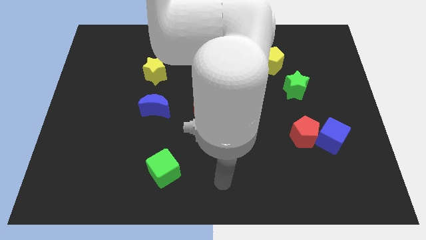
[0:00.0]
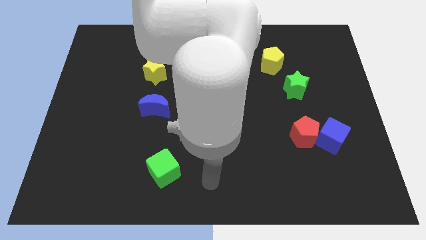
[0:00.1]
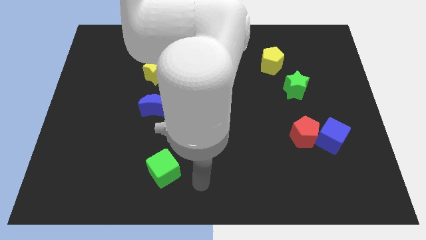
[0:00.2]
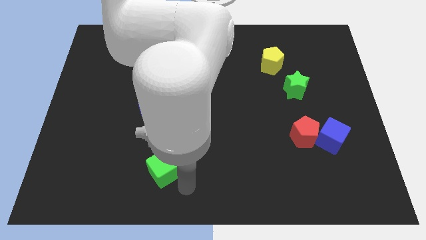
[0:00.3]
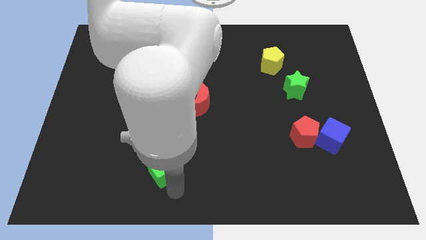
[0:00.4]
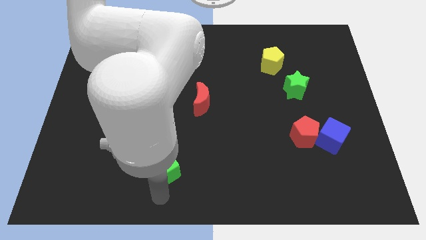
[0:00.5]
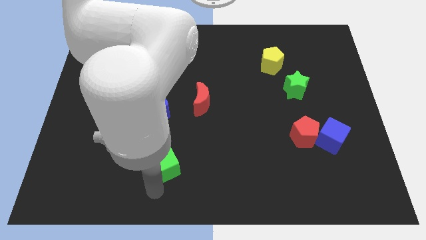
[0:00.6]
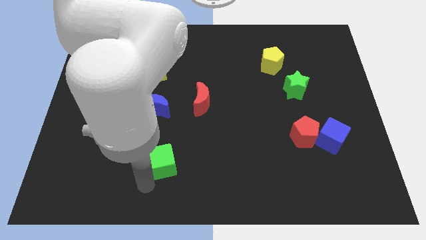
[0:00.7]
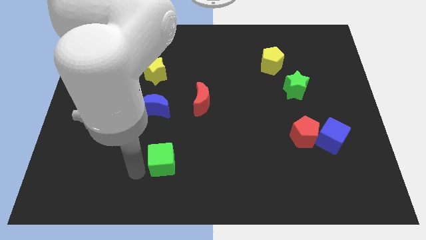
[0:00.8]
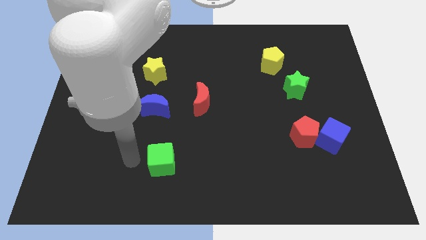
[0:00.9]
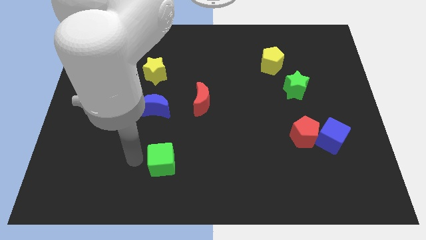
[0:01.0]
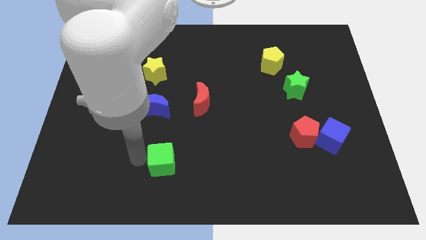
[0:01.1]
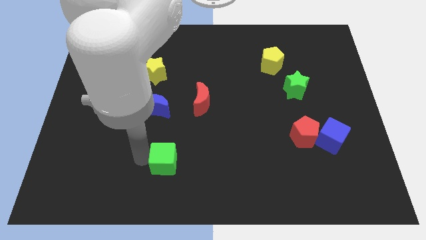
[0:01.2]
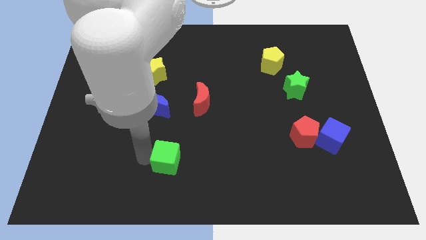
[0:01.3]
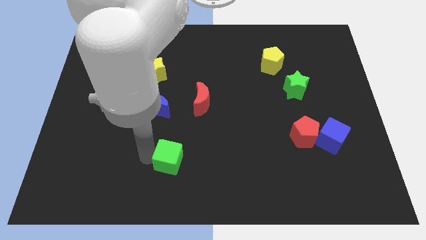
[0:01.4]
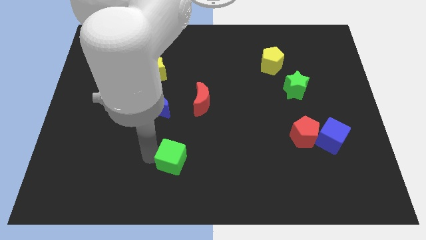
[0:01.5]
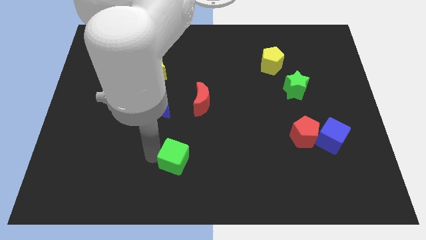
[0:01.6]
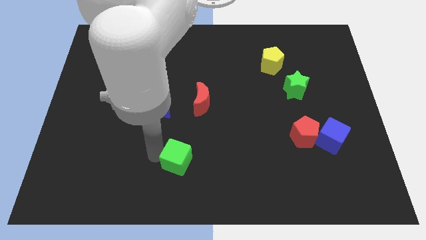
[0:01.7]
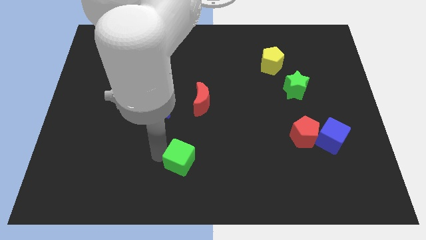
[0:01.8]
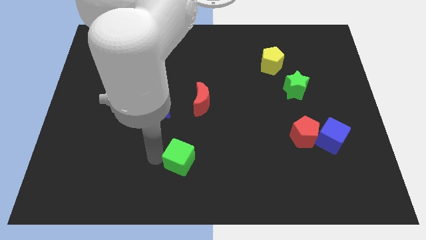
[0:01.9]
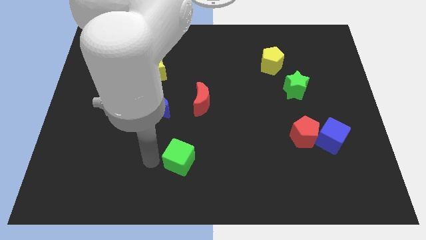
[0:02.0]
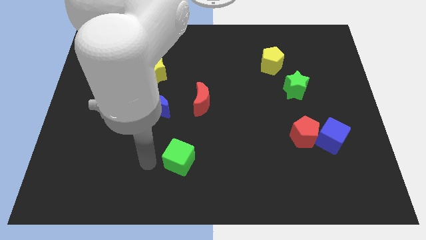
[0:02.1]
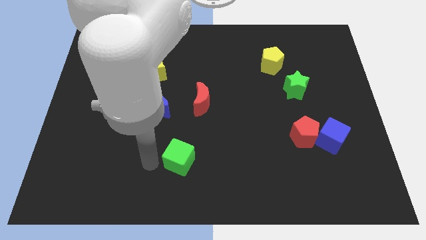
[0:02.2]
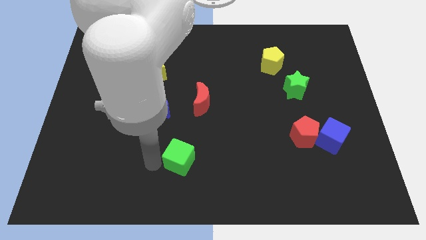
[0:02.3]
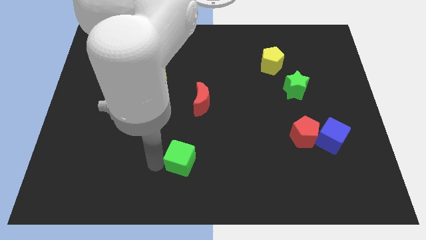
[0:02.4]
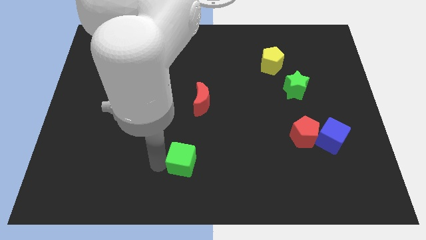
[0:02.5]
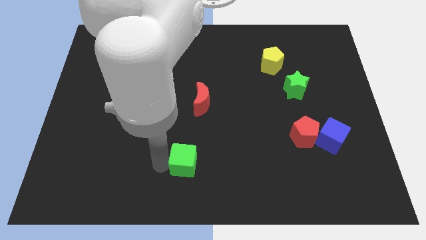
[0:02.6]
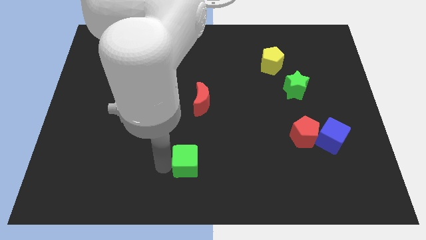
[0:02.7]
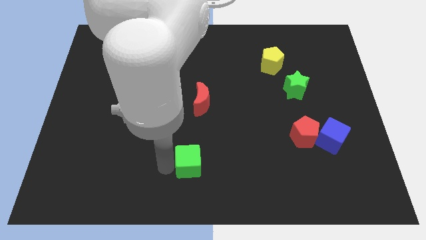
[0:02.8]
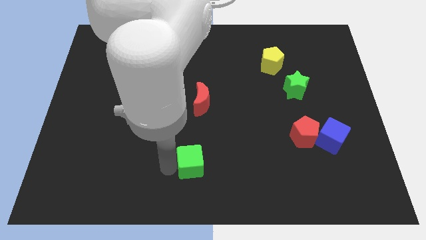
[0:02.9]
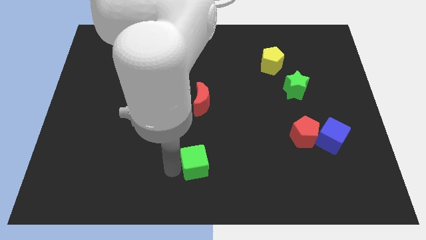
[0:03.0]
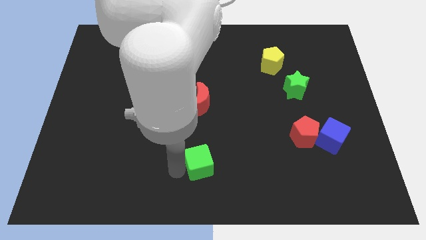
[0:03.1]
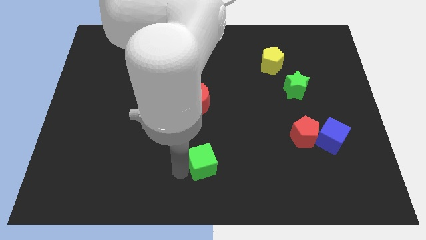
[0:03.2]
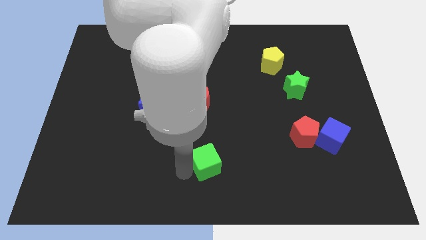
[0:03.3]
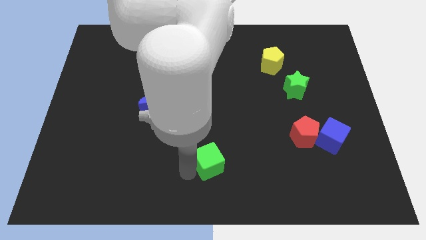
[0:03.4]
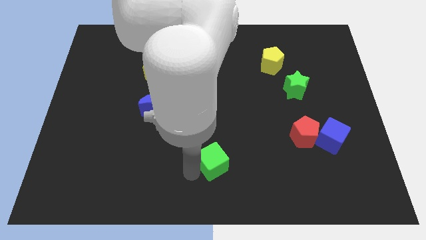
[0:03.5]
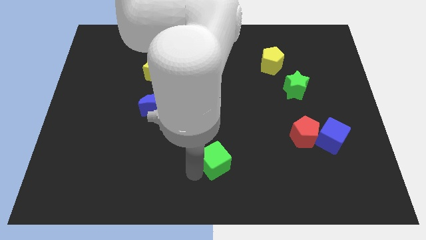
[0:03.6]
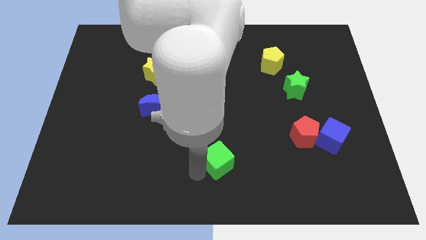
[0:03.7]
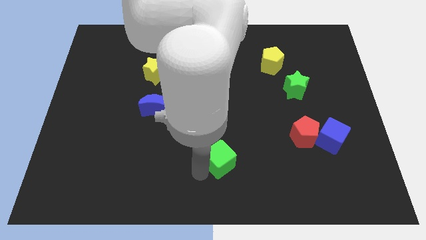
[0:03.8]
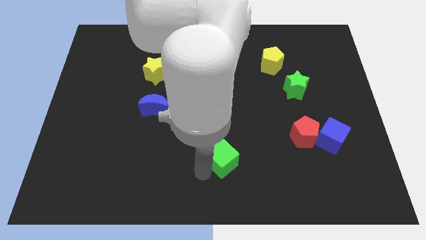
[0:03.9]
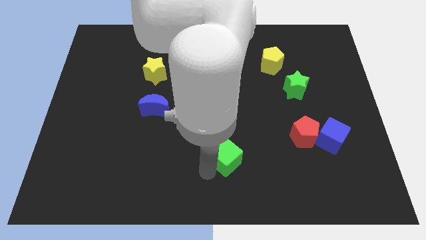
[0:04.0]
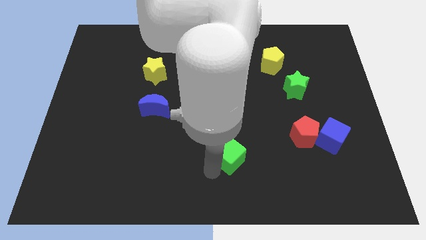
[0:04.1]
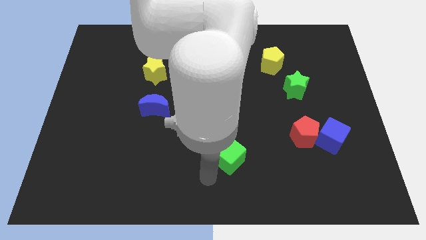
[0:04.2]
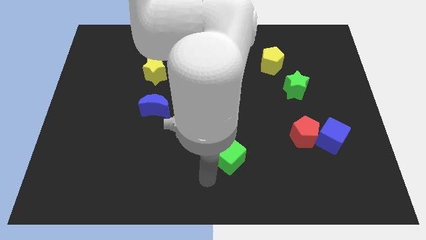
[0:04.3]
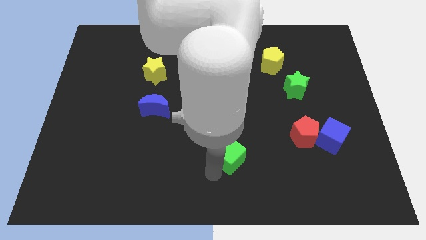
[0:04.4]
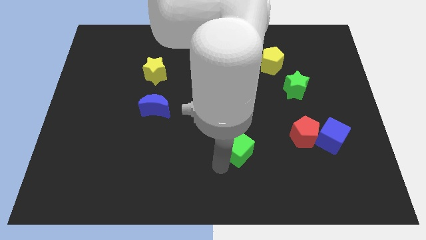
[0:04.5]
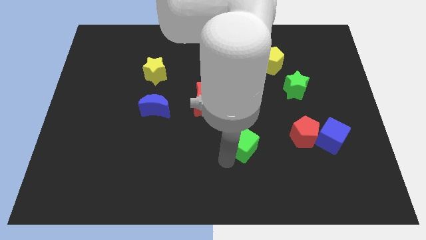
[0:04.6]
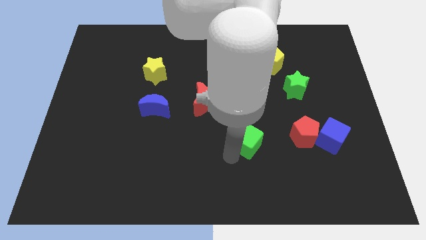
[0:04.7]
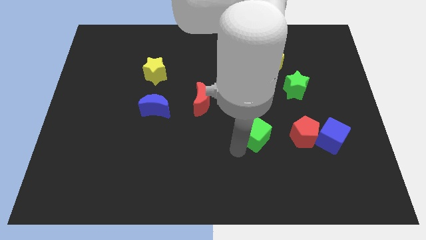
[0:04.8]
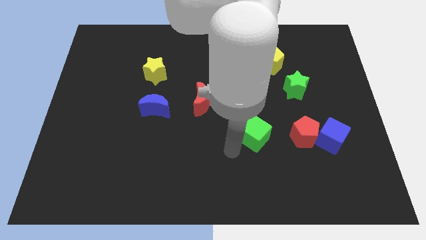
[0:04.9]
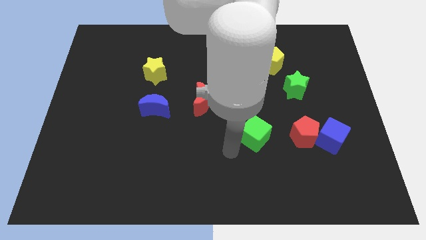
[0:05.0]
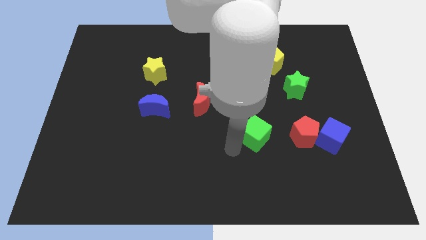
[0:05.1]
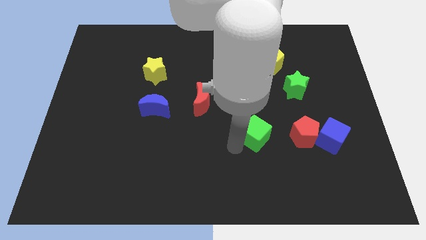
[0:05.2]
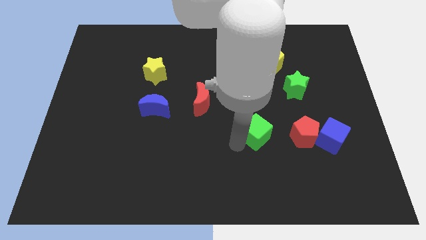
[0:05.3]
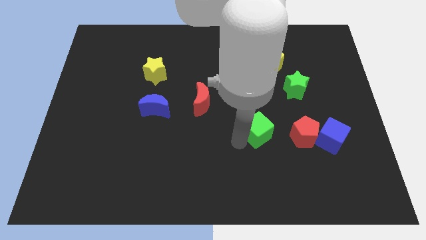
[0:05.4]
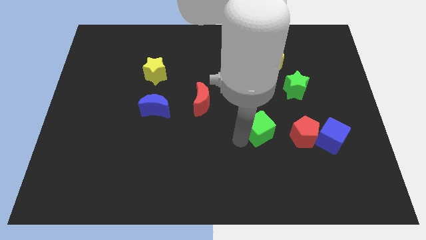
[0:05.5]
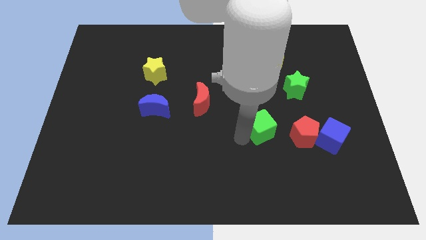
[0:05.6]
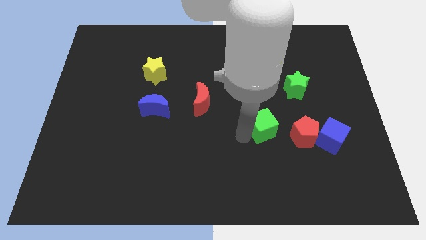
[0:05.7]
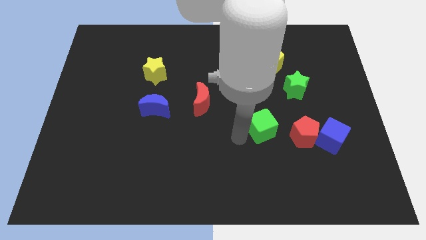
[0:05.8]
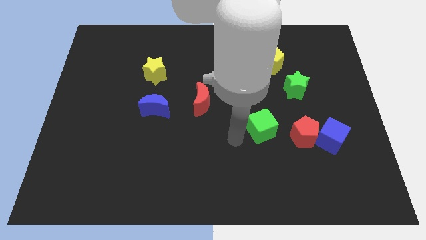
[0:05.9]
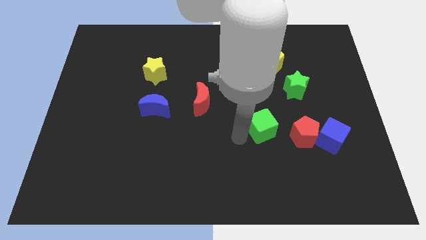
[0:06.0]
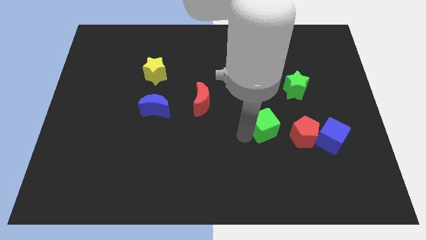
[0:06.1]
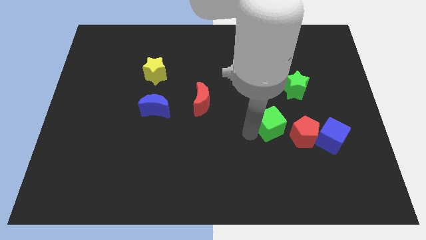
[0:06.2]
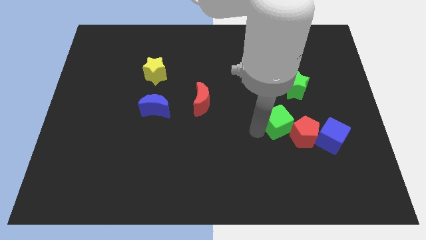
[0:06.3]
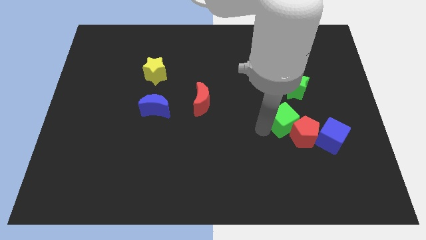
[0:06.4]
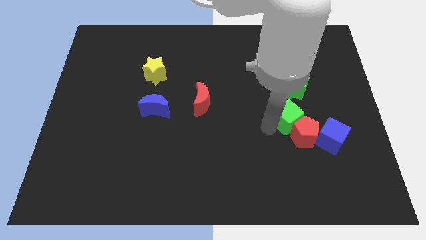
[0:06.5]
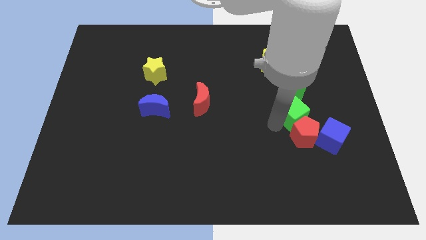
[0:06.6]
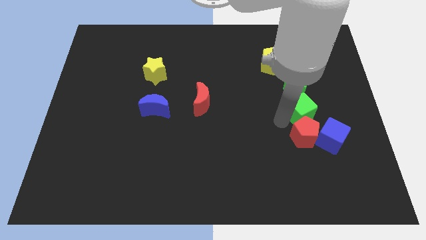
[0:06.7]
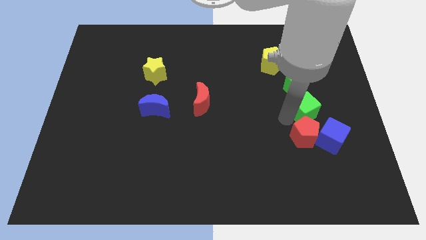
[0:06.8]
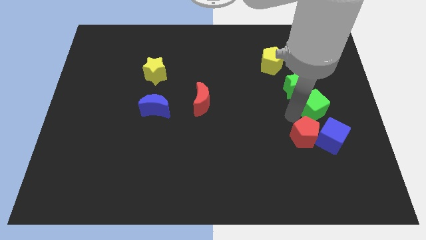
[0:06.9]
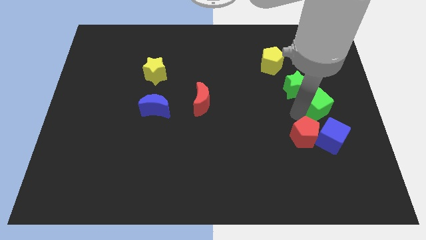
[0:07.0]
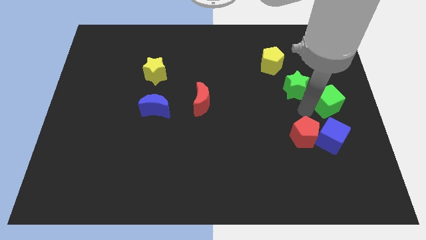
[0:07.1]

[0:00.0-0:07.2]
put the green cube to the center right
